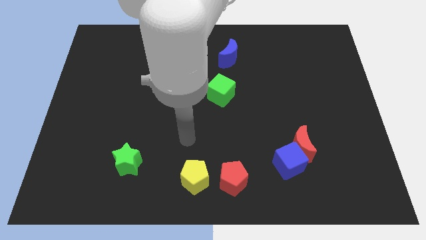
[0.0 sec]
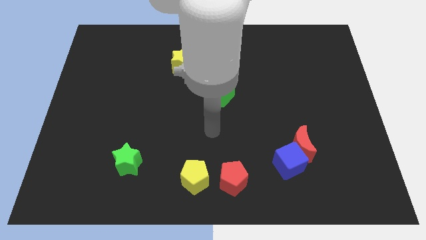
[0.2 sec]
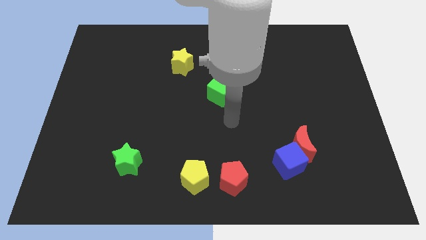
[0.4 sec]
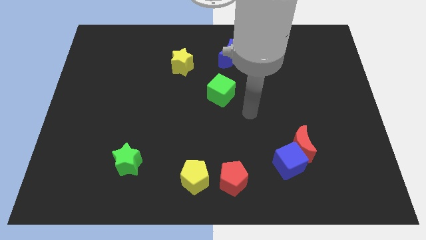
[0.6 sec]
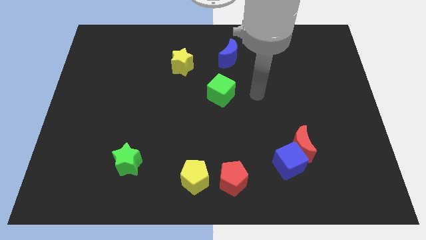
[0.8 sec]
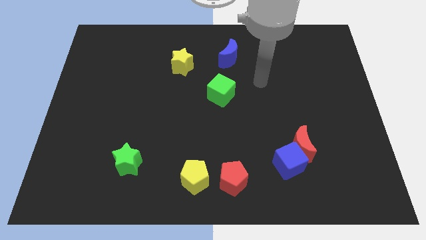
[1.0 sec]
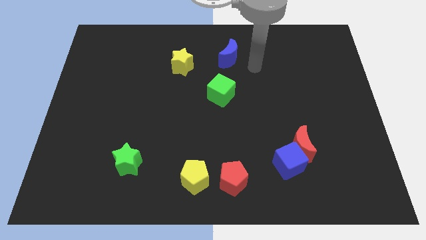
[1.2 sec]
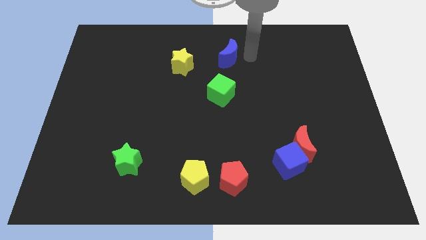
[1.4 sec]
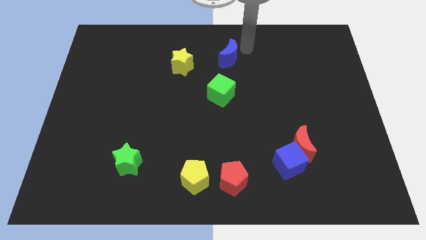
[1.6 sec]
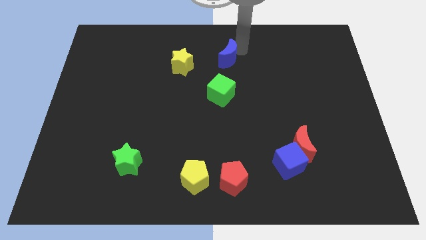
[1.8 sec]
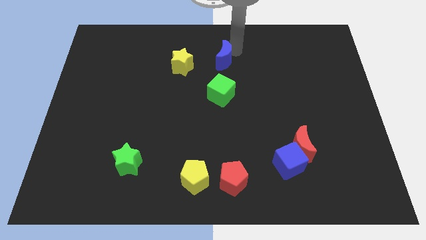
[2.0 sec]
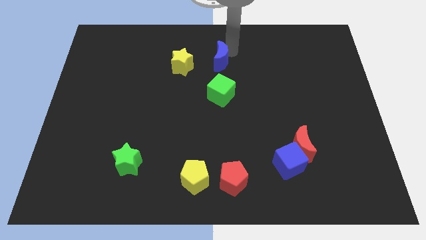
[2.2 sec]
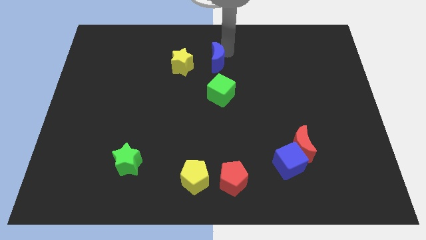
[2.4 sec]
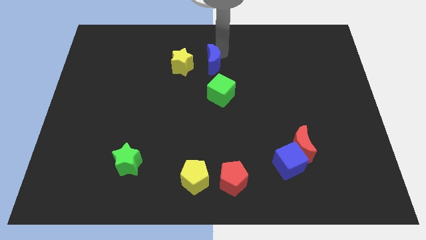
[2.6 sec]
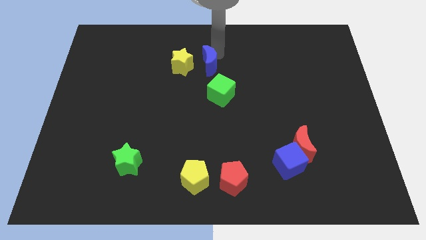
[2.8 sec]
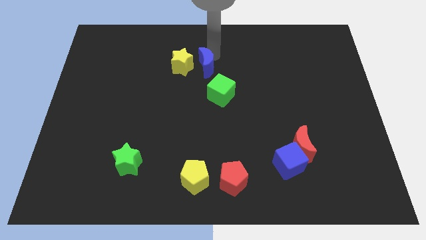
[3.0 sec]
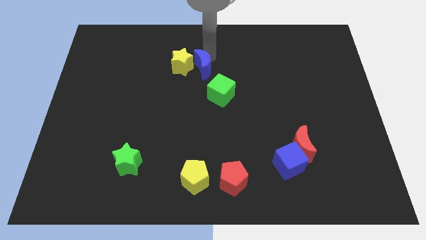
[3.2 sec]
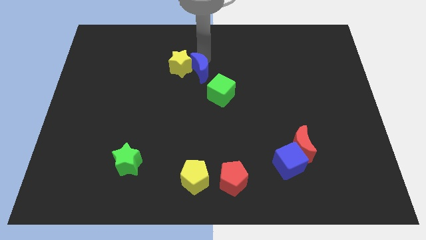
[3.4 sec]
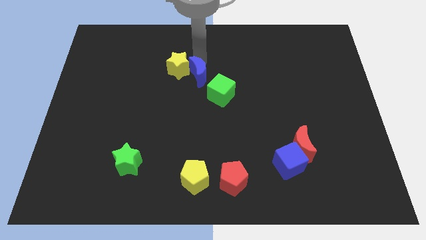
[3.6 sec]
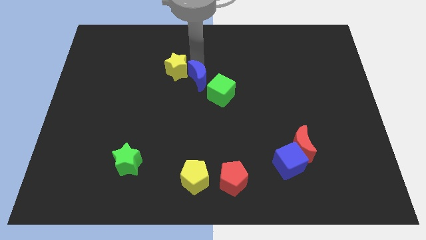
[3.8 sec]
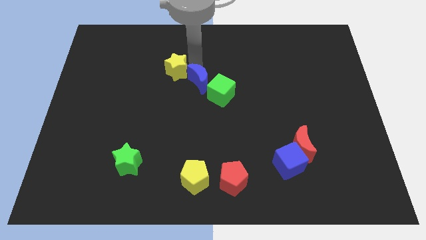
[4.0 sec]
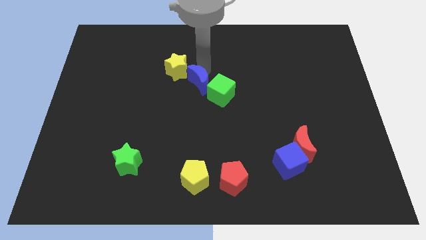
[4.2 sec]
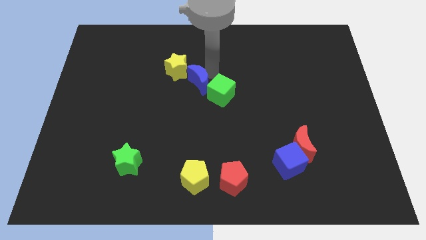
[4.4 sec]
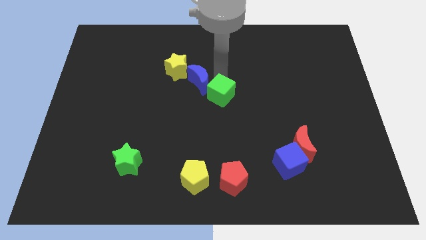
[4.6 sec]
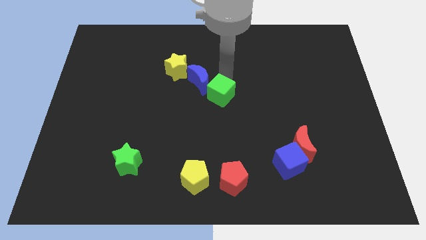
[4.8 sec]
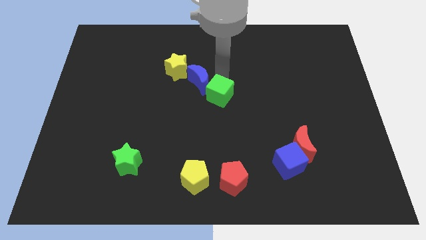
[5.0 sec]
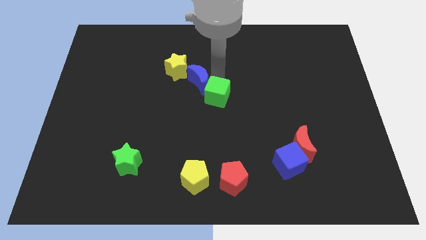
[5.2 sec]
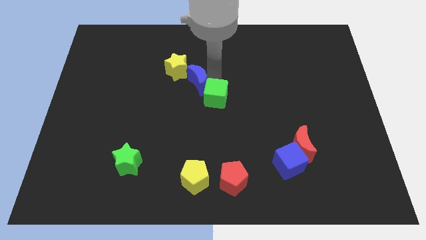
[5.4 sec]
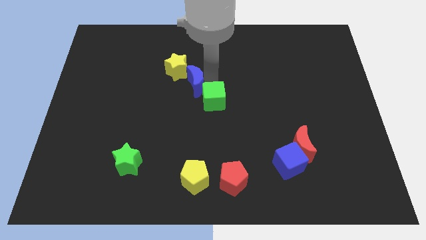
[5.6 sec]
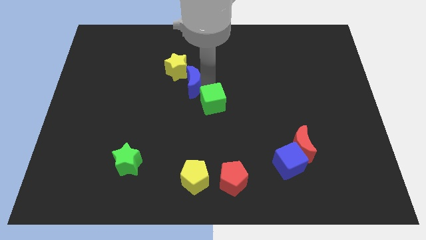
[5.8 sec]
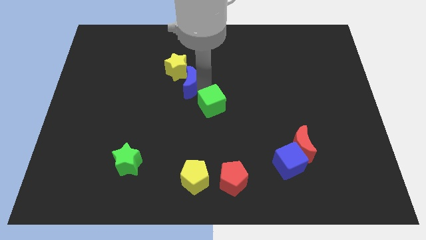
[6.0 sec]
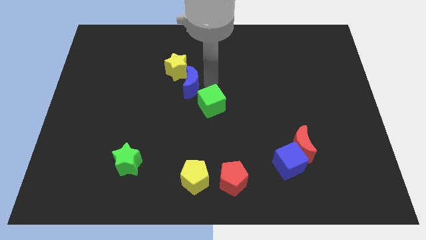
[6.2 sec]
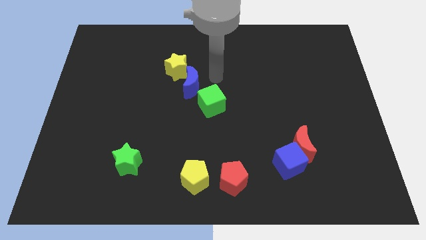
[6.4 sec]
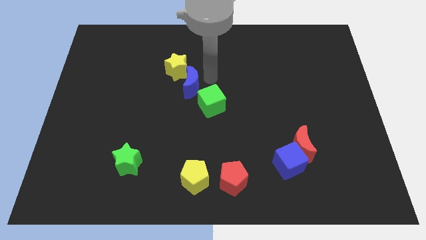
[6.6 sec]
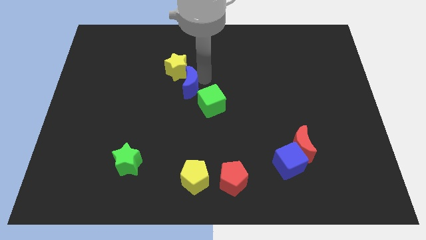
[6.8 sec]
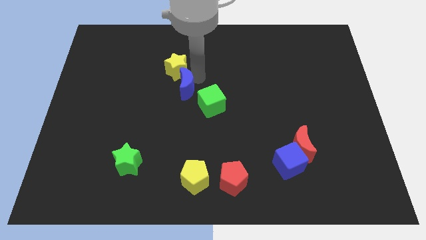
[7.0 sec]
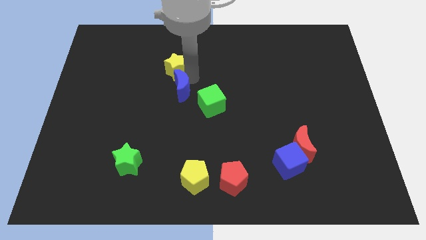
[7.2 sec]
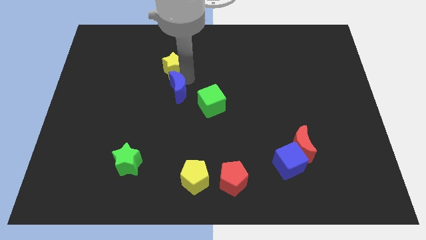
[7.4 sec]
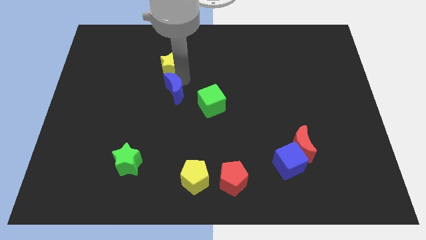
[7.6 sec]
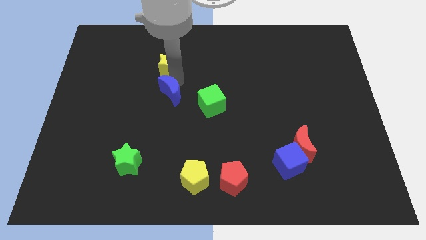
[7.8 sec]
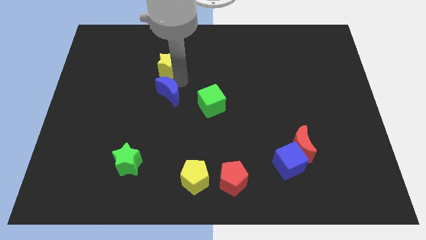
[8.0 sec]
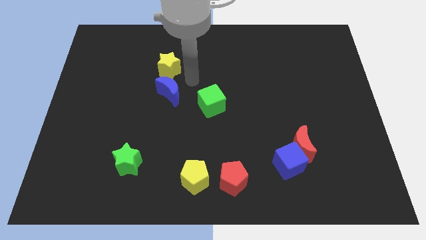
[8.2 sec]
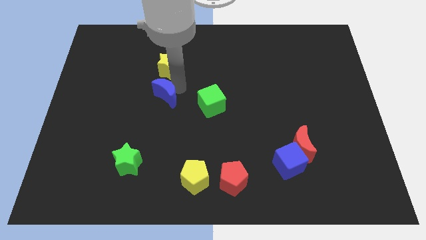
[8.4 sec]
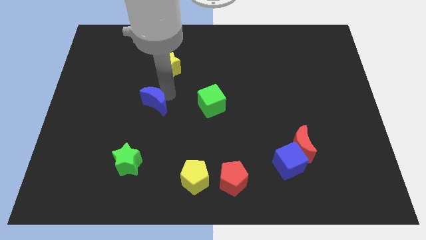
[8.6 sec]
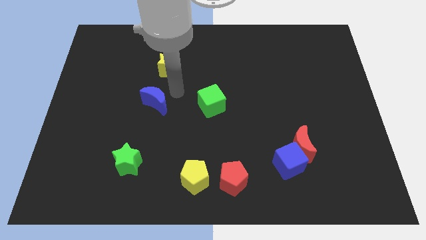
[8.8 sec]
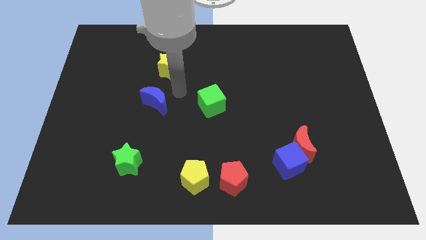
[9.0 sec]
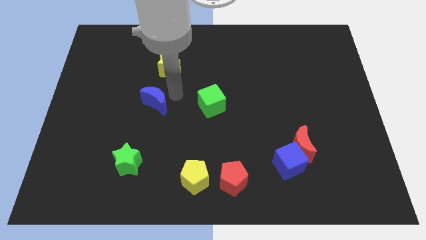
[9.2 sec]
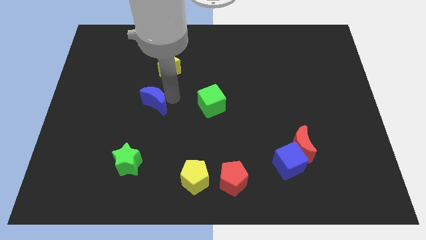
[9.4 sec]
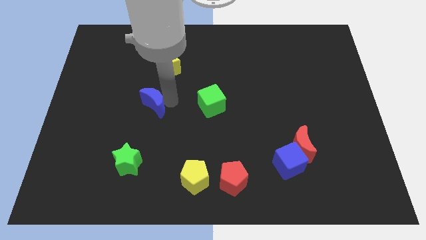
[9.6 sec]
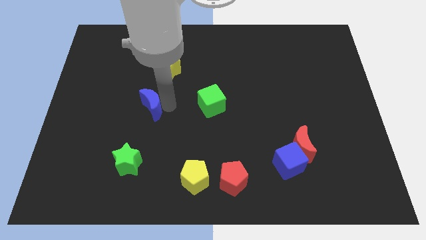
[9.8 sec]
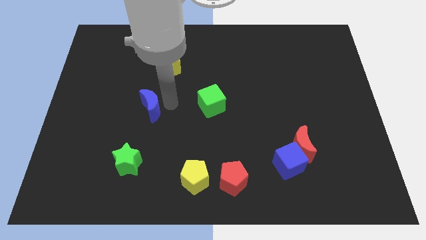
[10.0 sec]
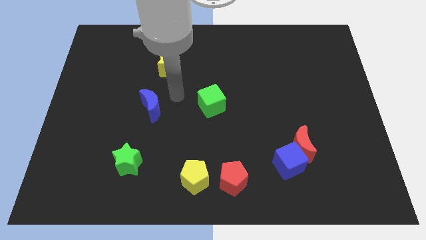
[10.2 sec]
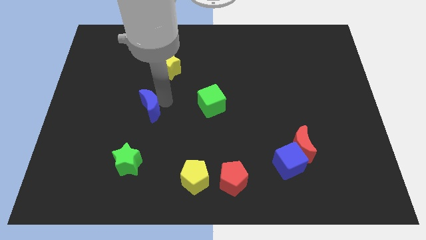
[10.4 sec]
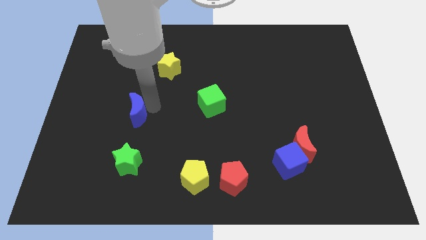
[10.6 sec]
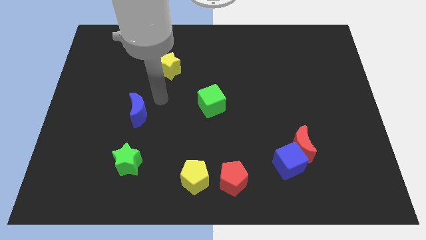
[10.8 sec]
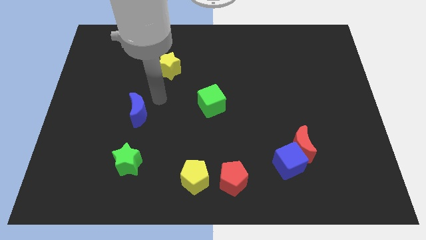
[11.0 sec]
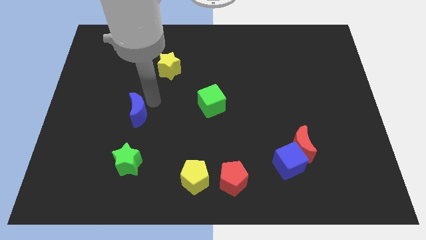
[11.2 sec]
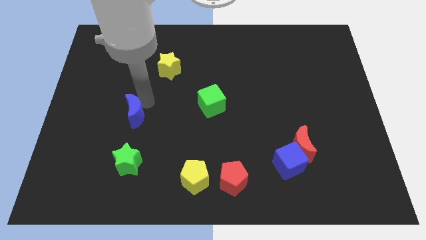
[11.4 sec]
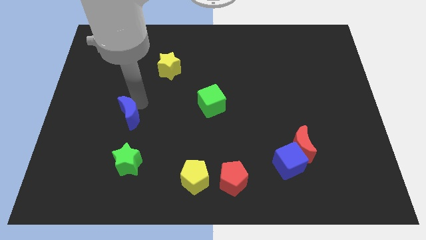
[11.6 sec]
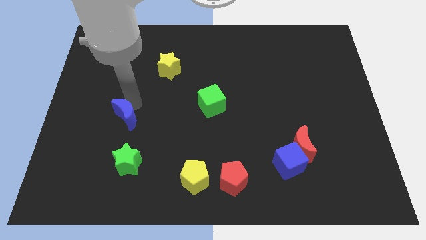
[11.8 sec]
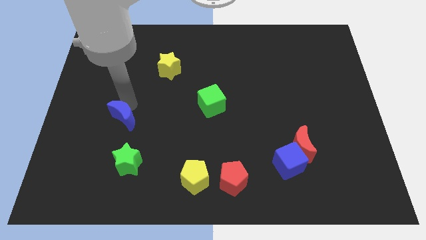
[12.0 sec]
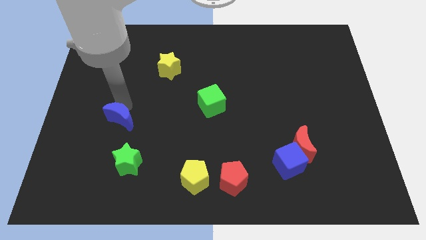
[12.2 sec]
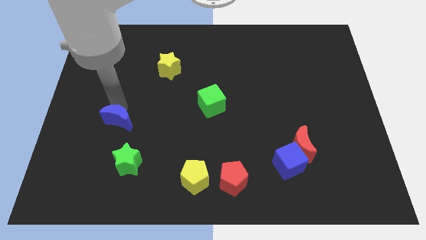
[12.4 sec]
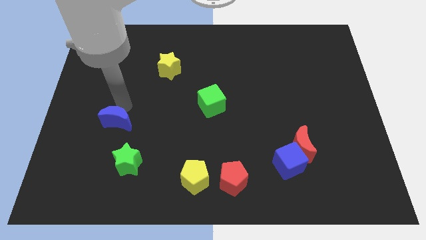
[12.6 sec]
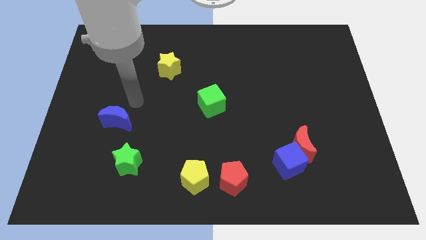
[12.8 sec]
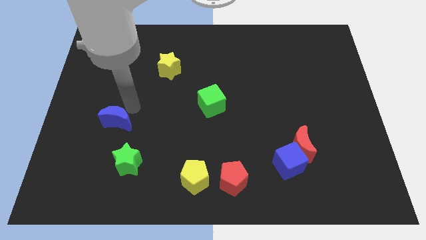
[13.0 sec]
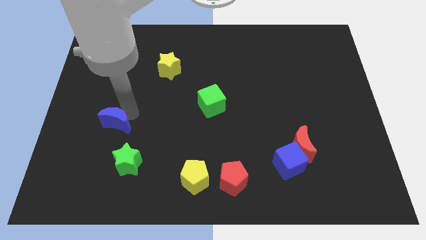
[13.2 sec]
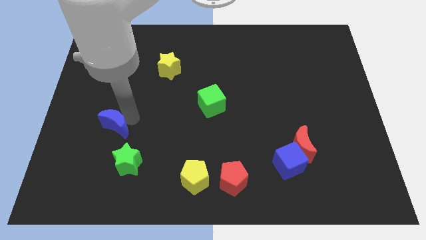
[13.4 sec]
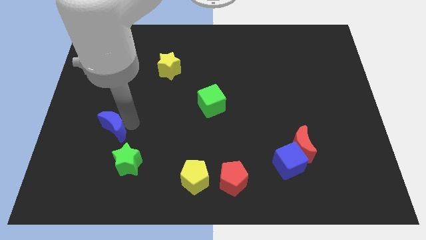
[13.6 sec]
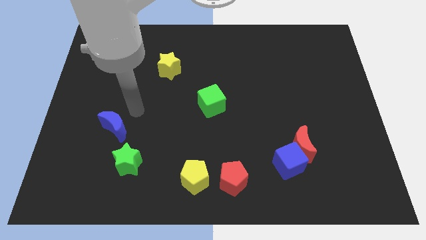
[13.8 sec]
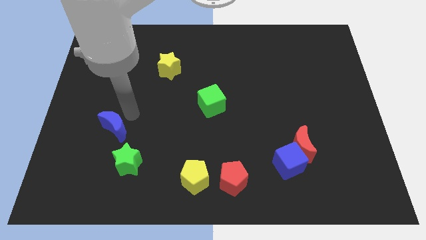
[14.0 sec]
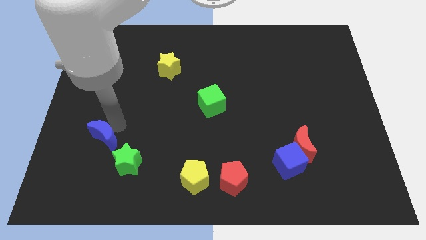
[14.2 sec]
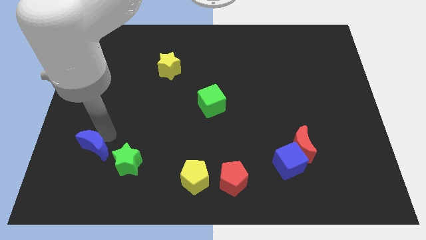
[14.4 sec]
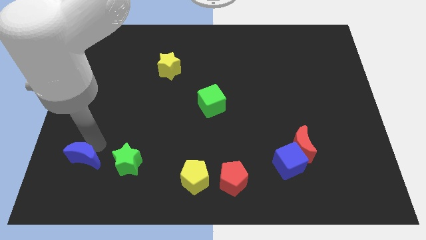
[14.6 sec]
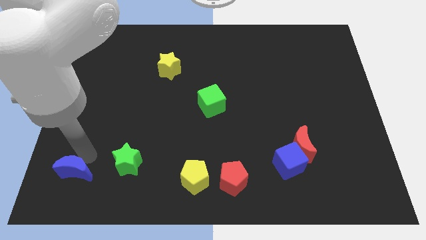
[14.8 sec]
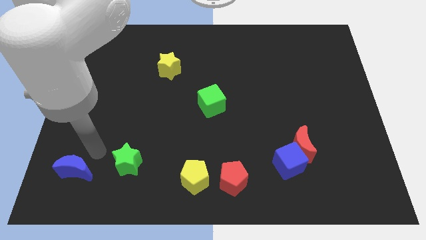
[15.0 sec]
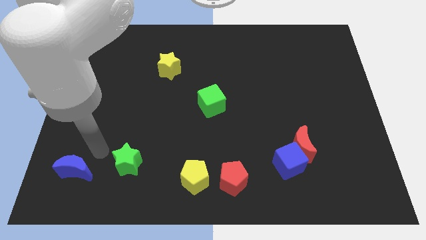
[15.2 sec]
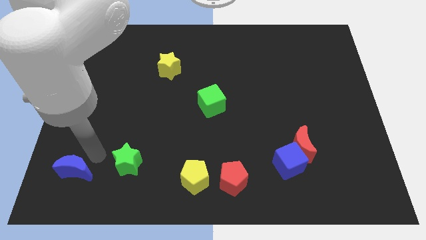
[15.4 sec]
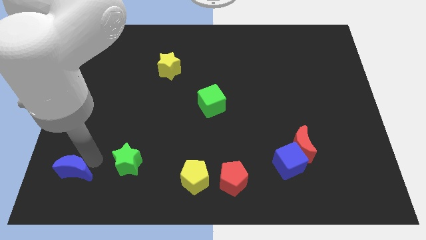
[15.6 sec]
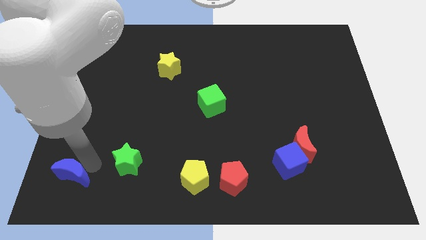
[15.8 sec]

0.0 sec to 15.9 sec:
push the blue moon to the bottom left
